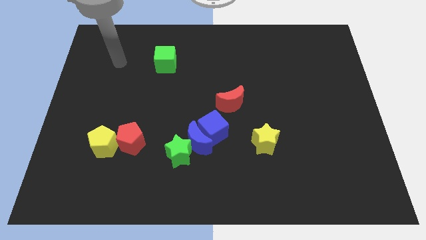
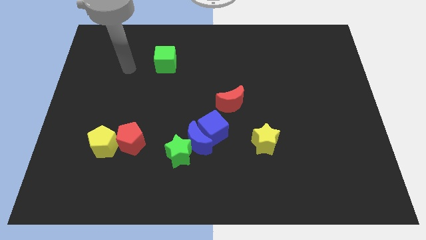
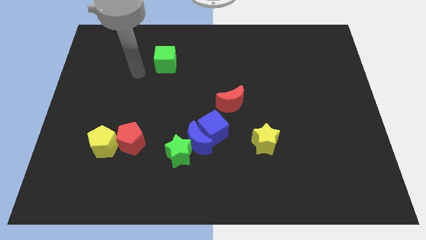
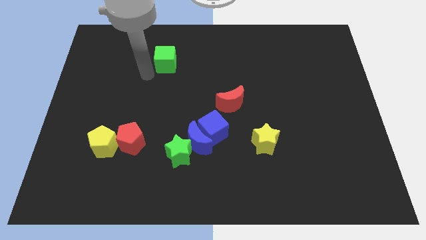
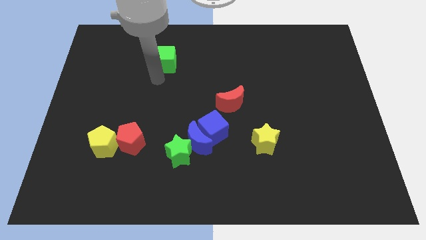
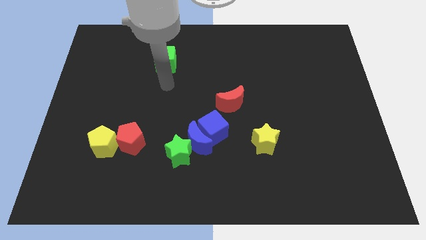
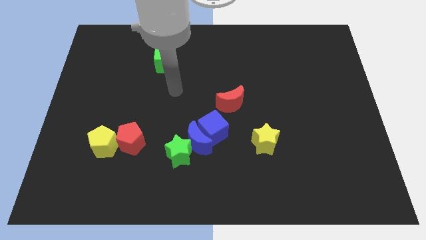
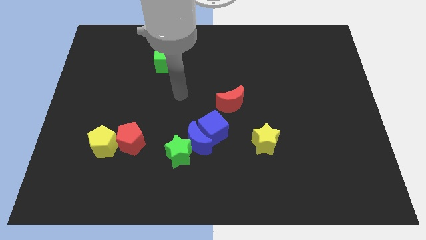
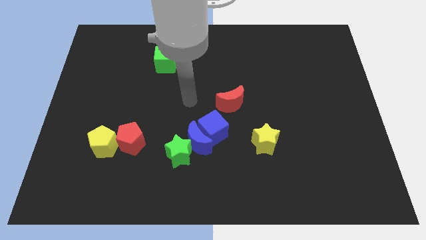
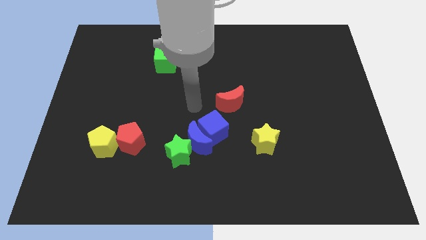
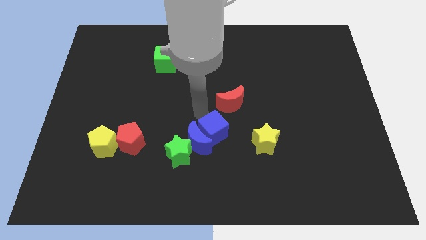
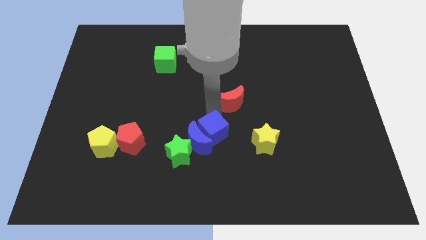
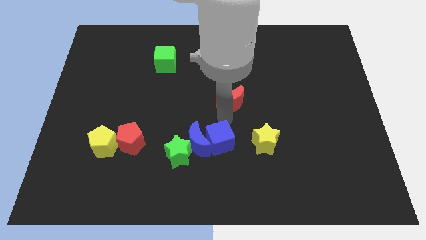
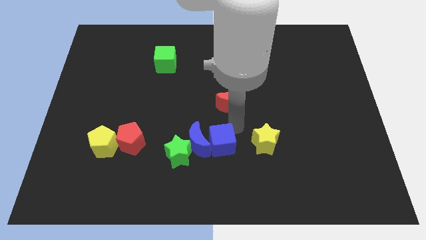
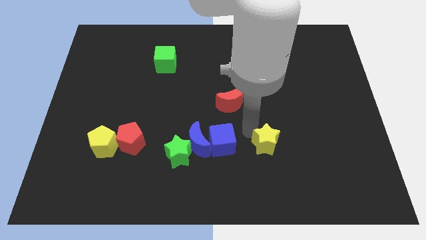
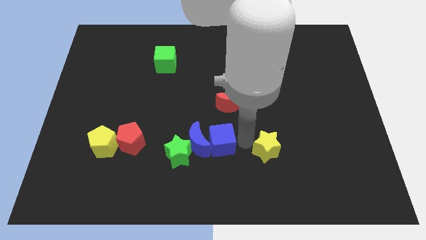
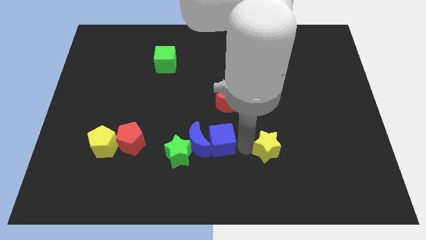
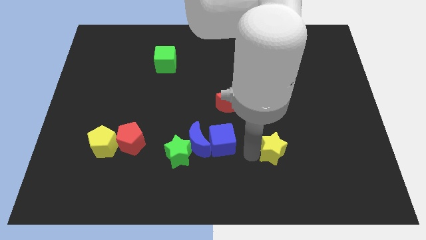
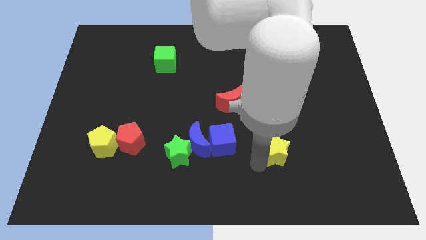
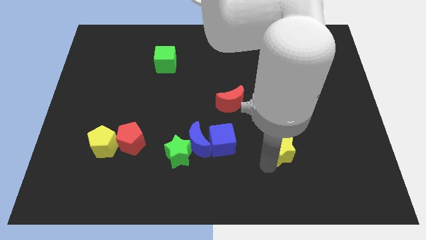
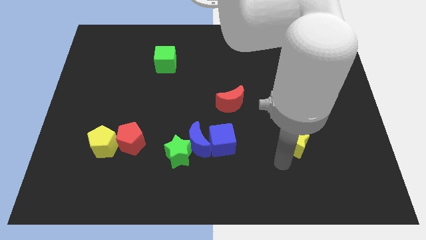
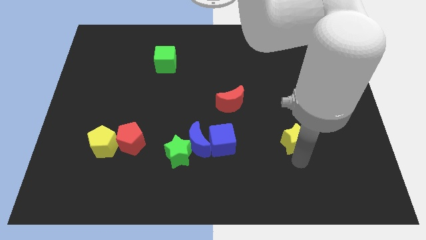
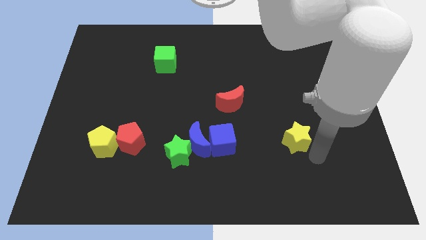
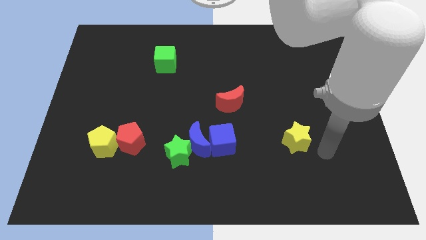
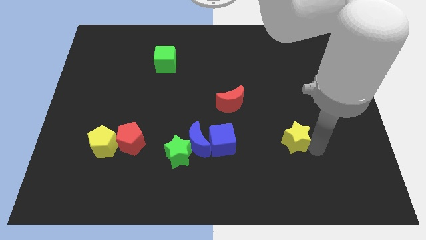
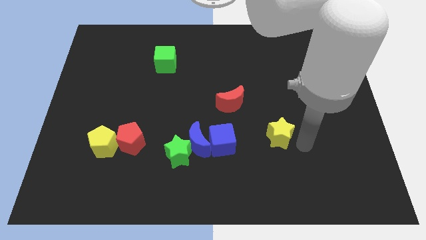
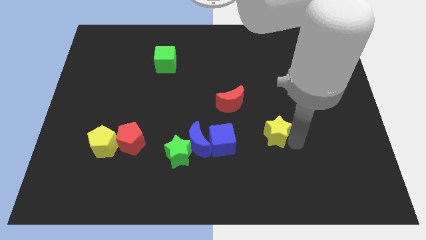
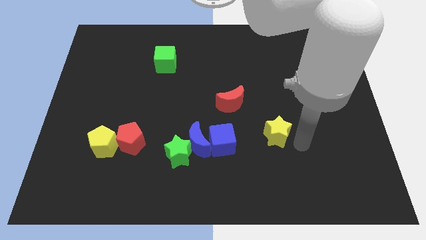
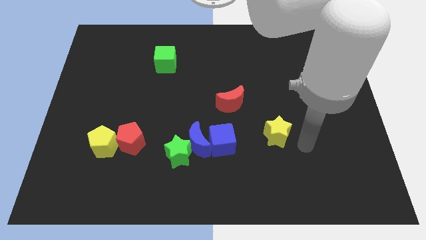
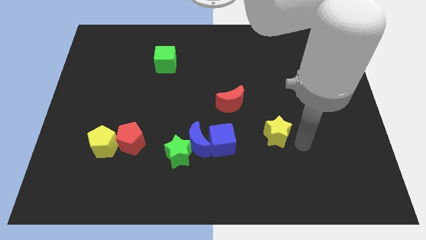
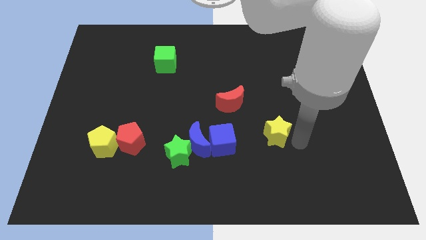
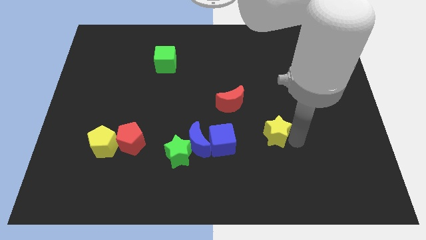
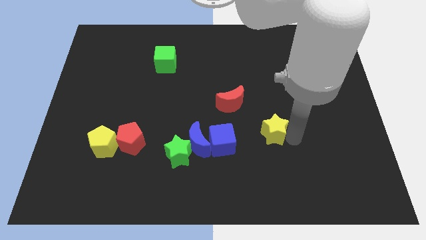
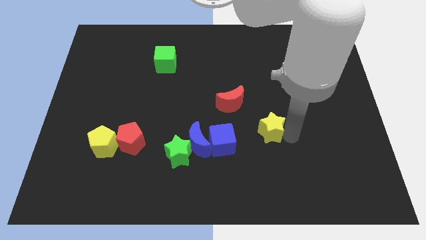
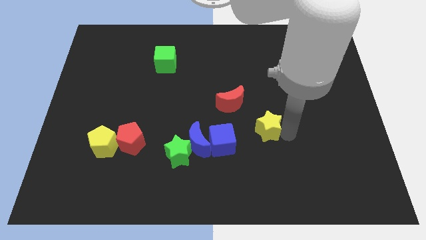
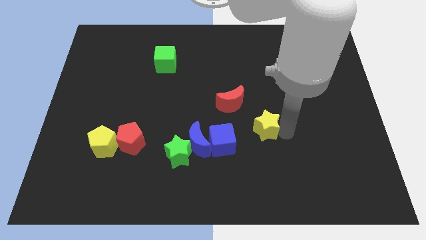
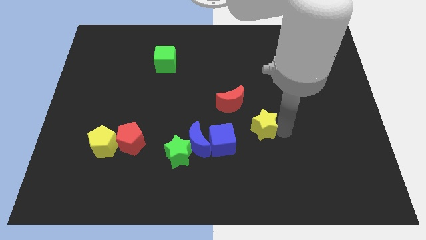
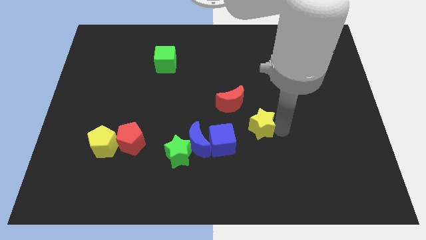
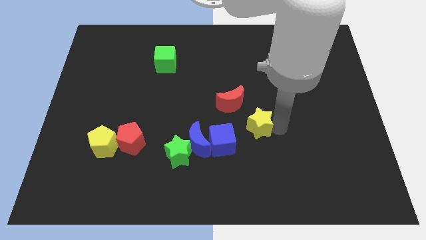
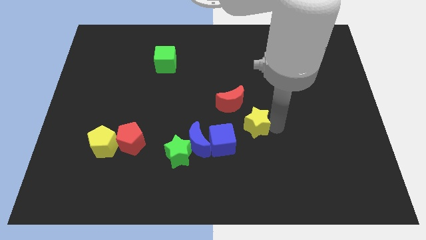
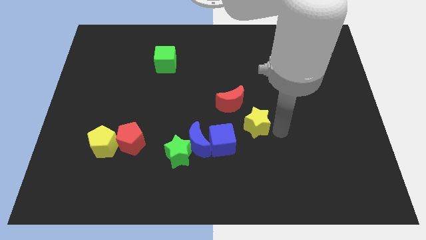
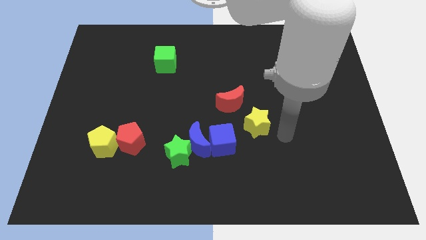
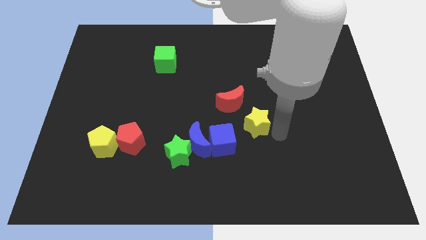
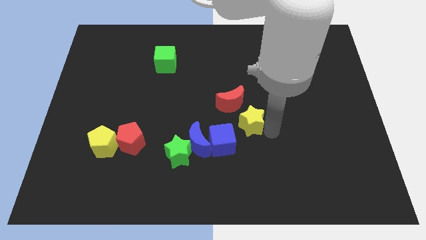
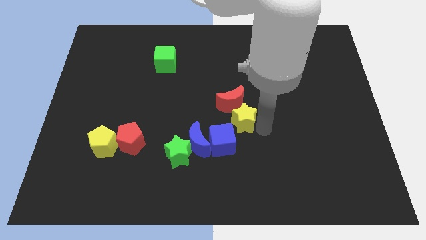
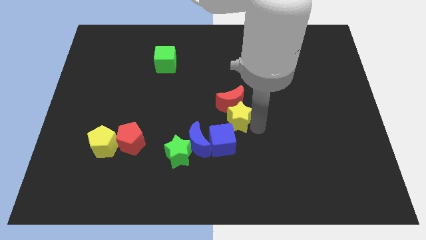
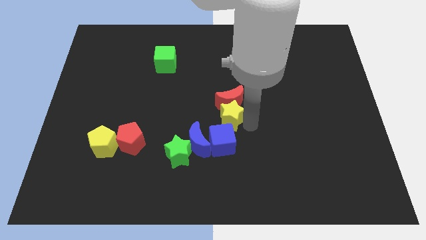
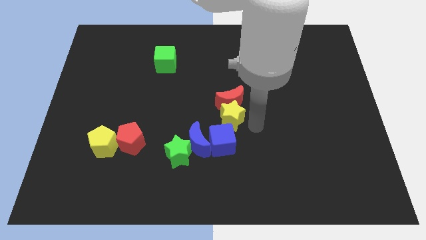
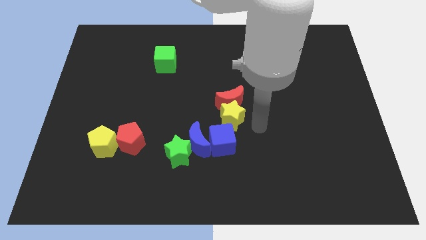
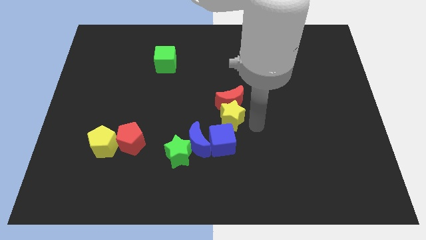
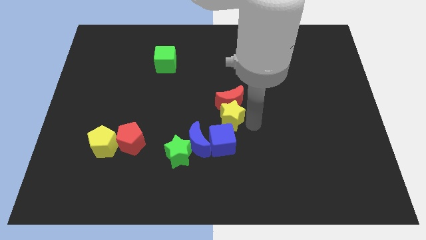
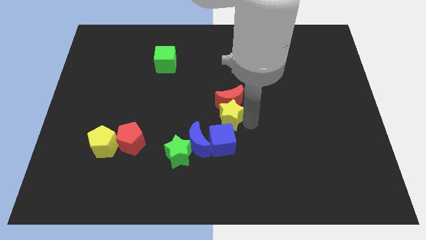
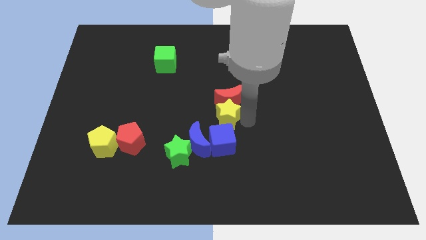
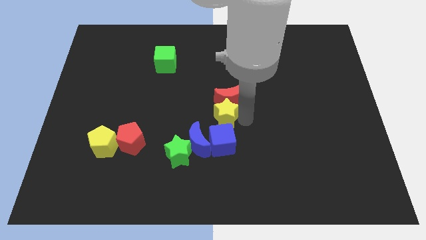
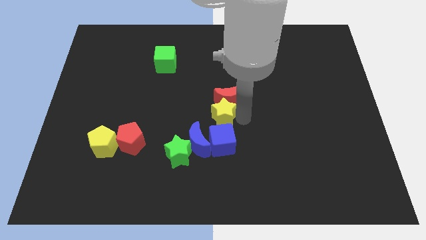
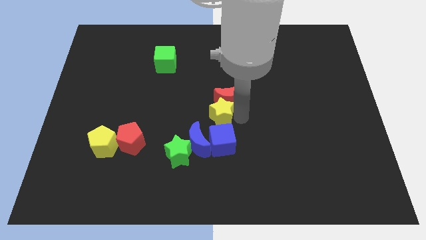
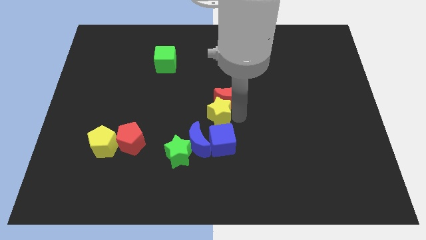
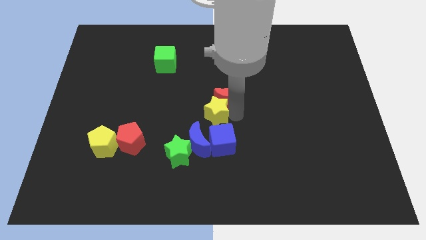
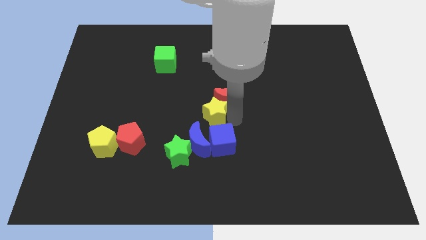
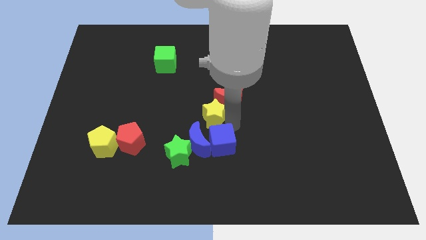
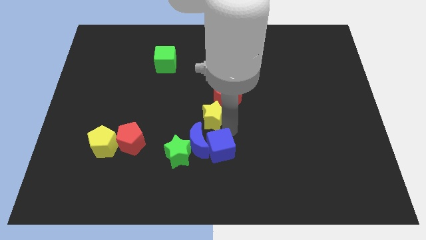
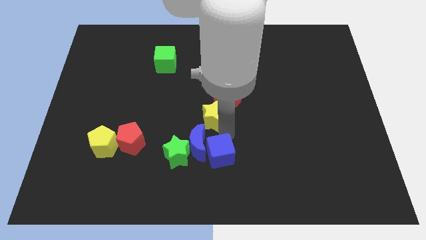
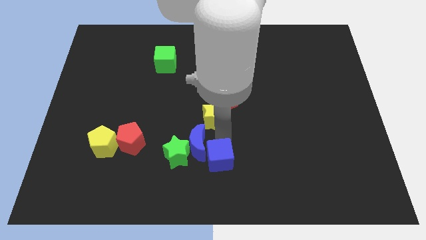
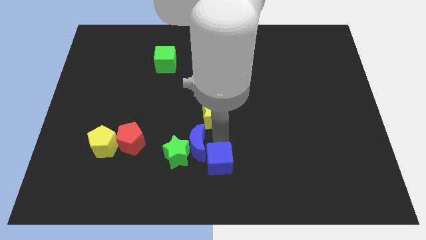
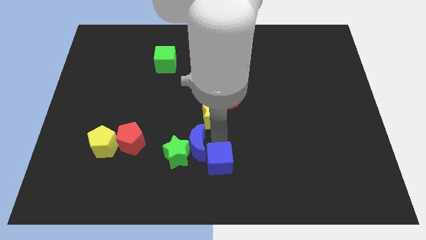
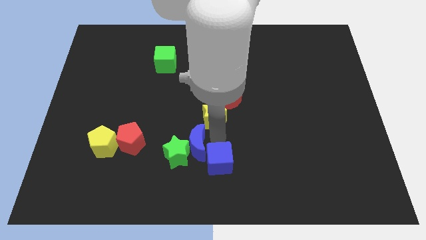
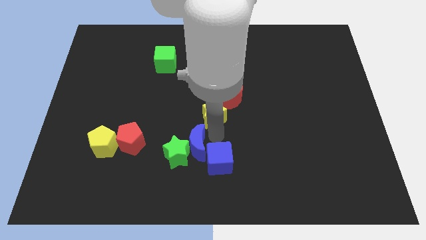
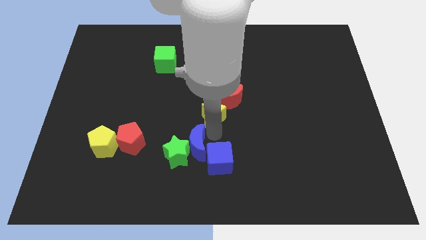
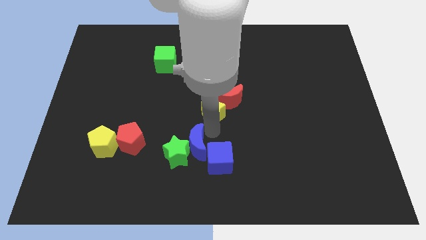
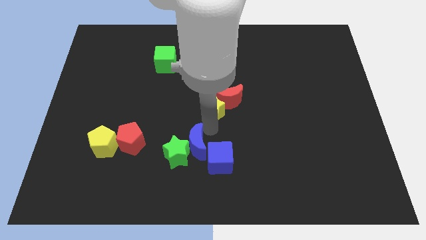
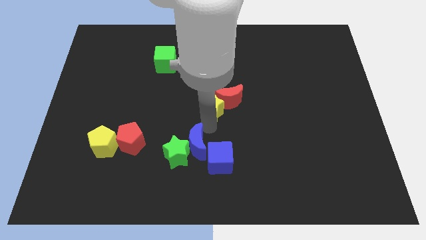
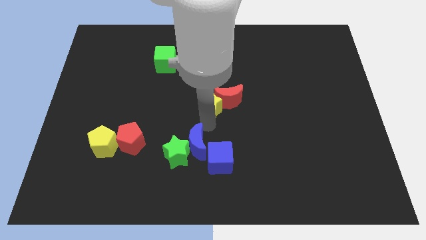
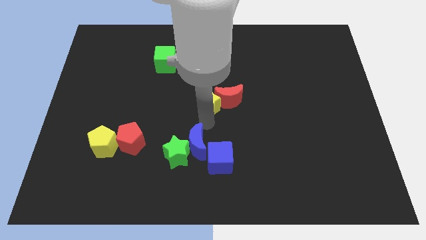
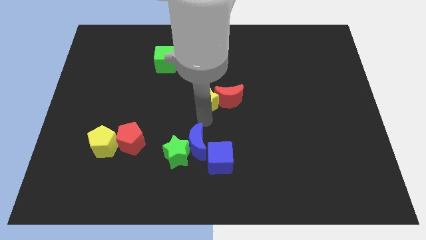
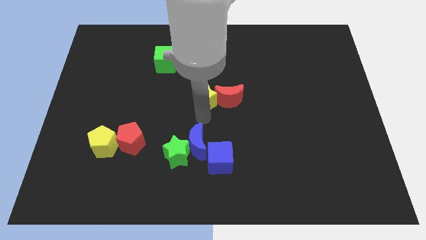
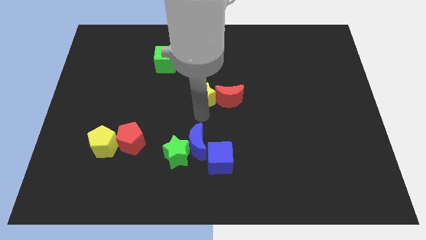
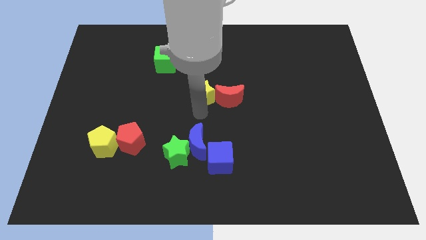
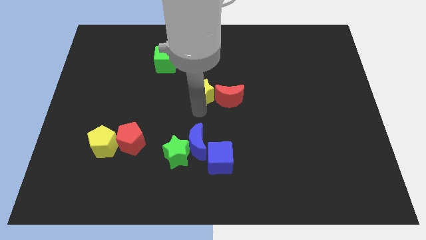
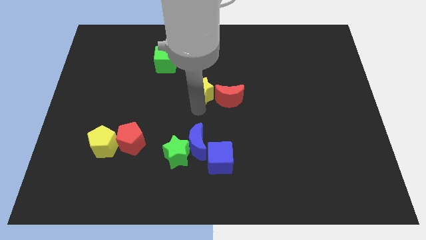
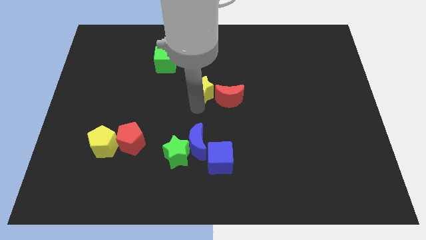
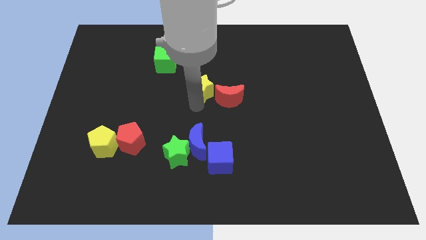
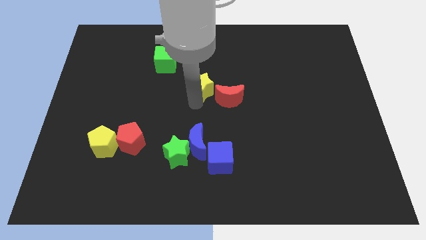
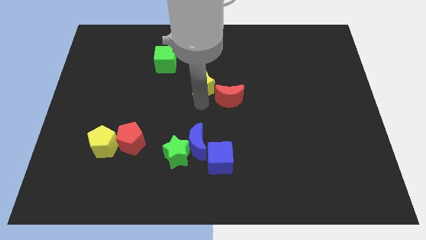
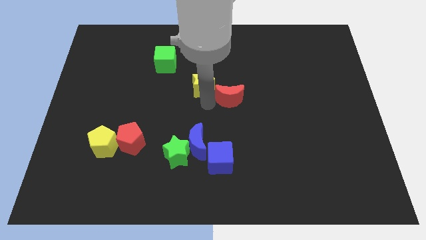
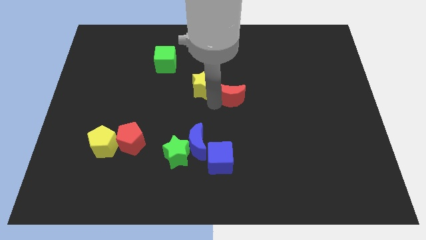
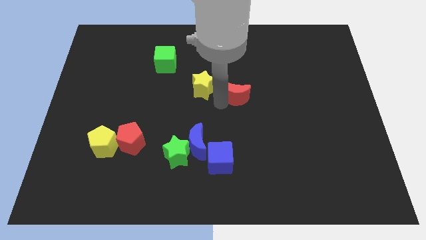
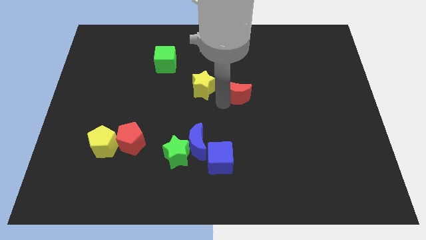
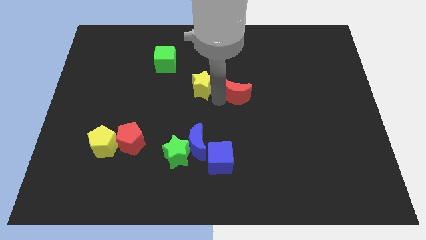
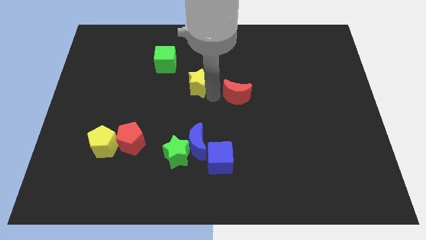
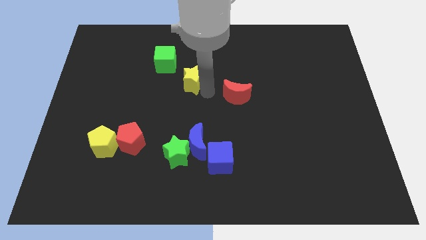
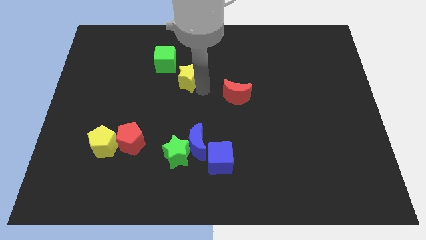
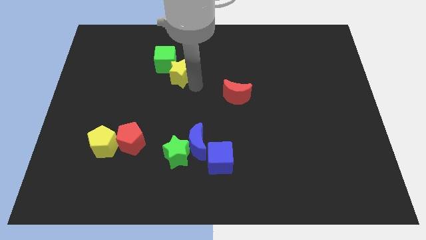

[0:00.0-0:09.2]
move the yellow star next to the green cube
